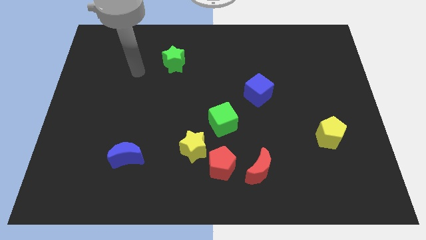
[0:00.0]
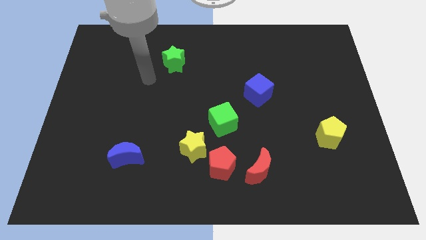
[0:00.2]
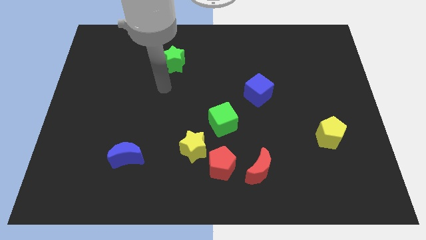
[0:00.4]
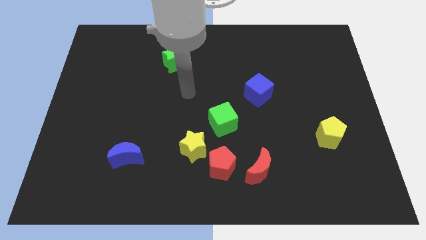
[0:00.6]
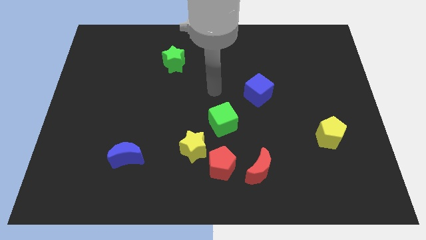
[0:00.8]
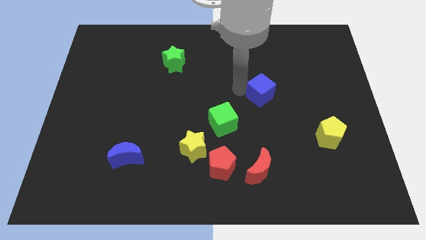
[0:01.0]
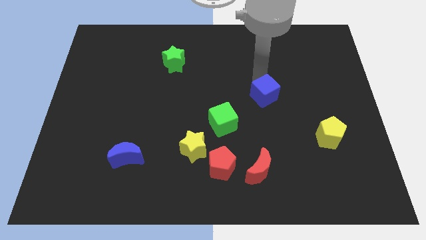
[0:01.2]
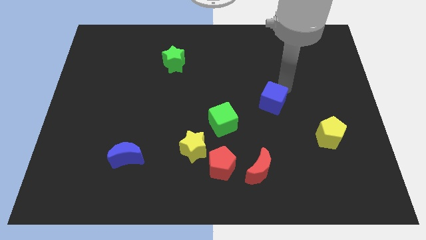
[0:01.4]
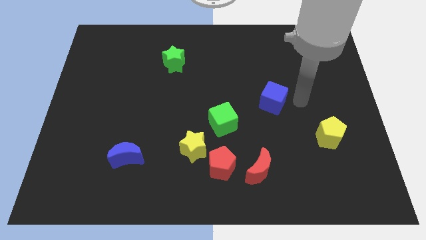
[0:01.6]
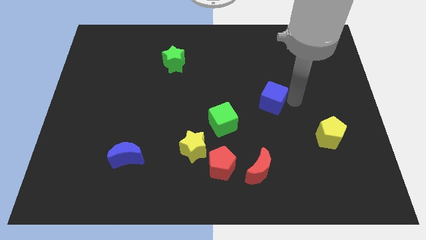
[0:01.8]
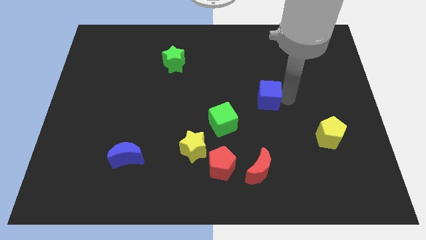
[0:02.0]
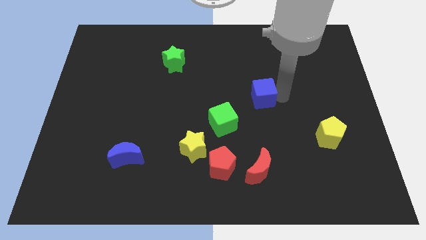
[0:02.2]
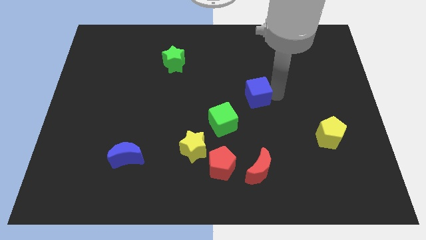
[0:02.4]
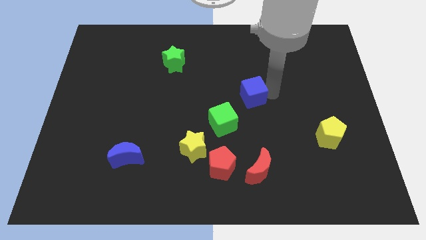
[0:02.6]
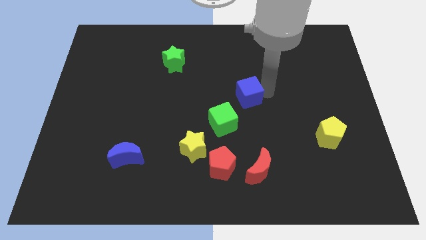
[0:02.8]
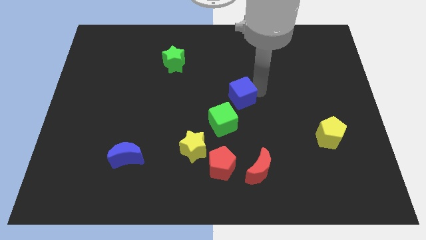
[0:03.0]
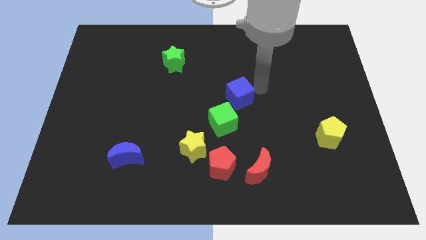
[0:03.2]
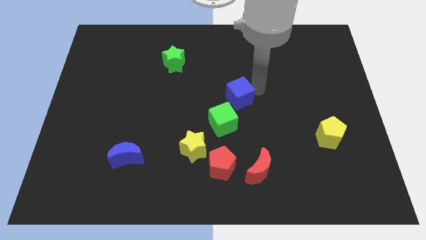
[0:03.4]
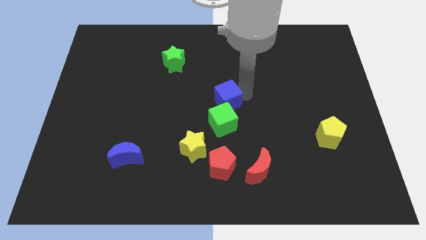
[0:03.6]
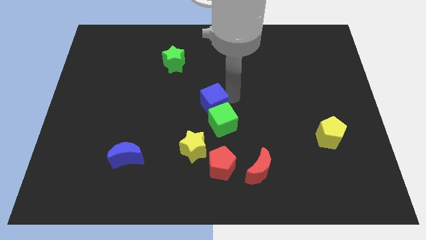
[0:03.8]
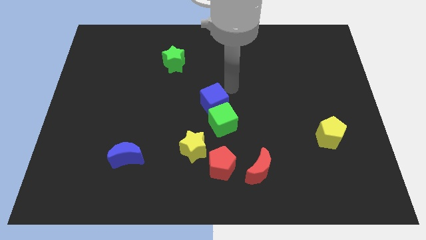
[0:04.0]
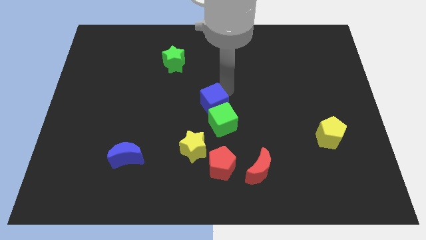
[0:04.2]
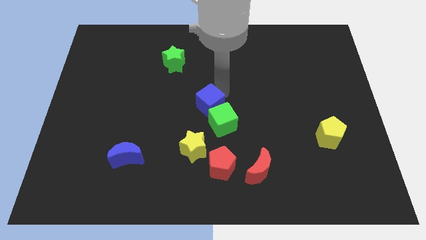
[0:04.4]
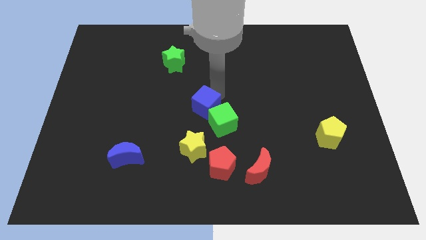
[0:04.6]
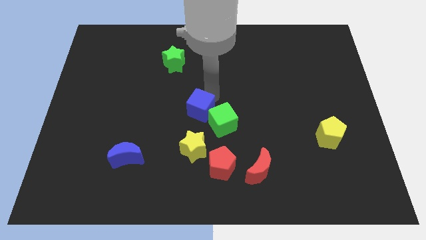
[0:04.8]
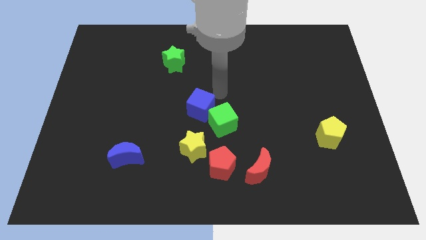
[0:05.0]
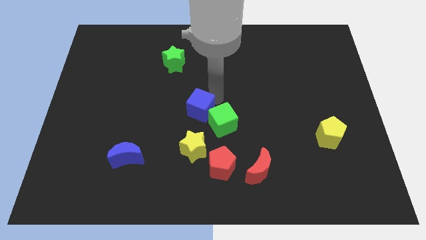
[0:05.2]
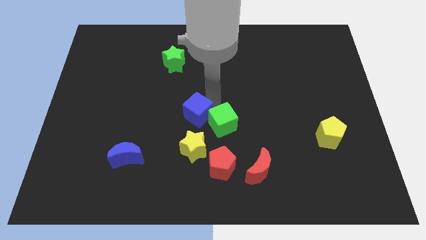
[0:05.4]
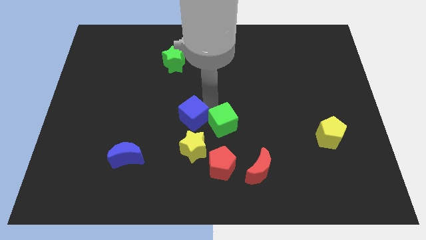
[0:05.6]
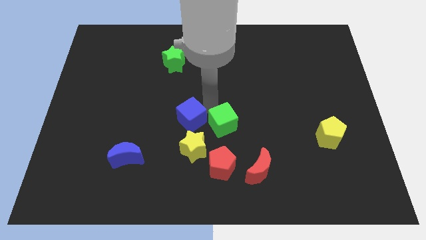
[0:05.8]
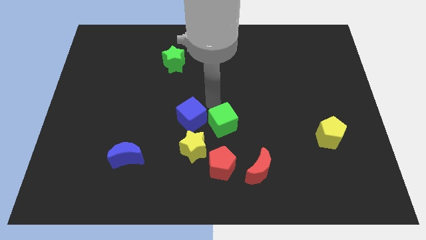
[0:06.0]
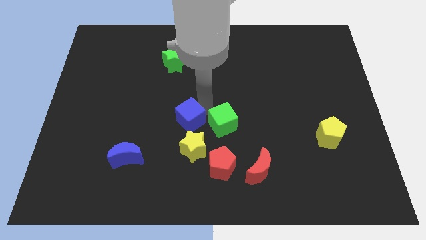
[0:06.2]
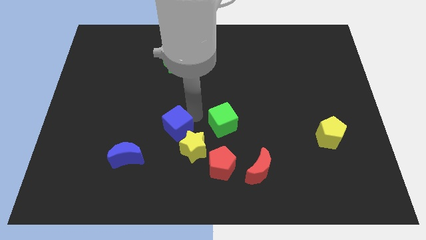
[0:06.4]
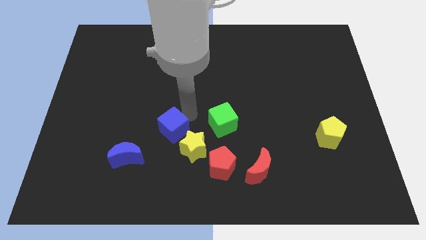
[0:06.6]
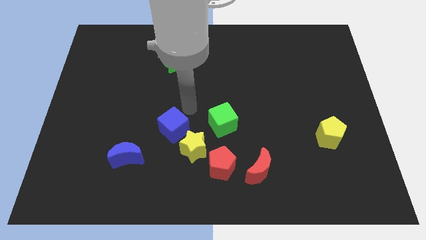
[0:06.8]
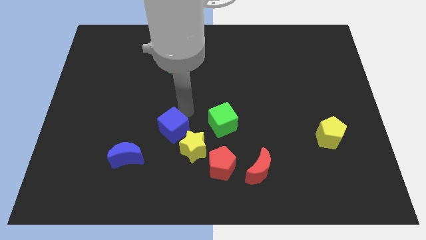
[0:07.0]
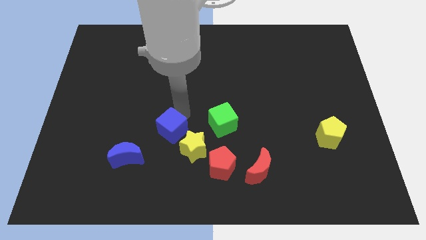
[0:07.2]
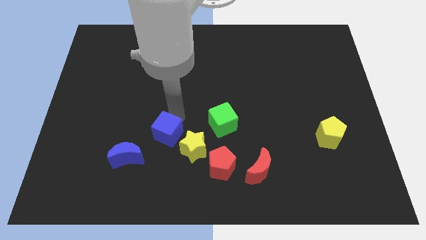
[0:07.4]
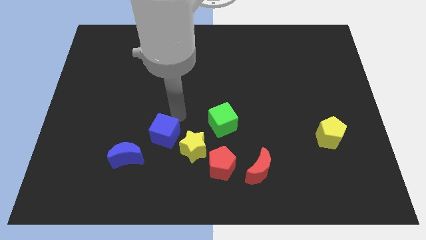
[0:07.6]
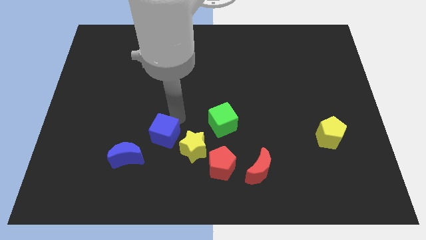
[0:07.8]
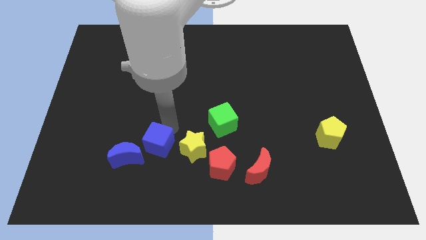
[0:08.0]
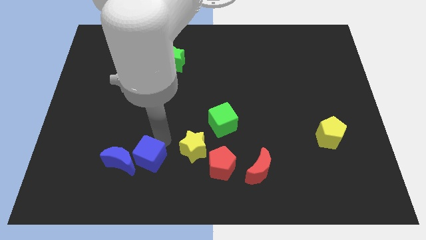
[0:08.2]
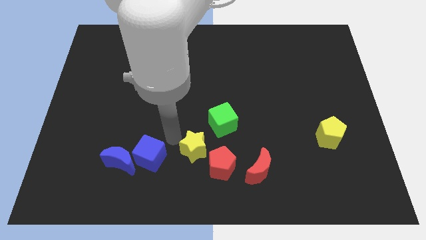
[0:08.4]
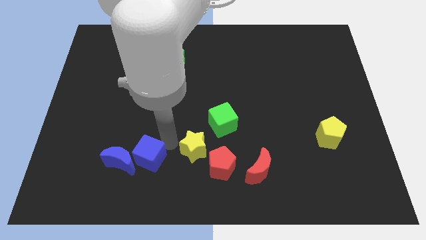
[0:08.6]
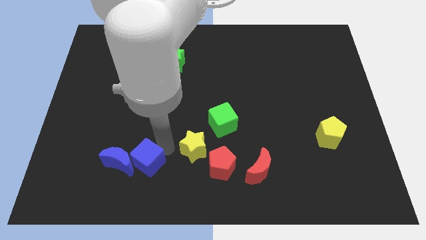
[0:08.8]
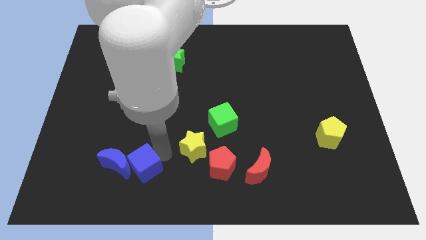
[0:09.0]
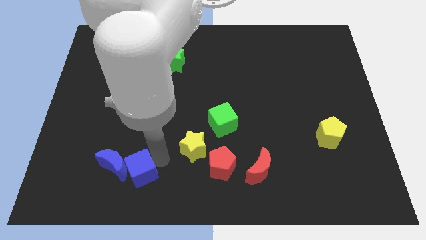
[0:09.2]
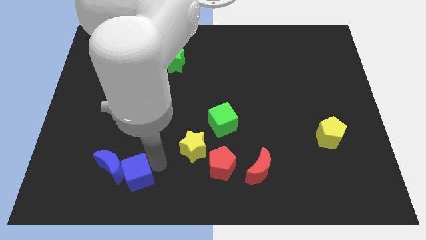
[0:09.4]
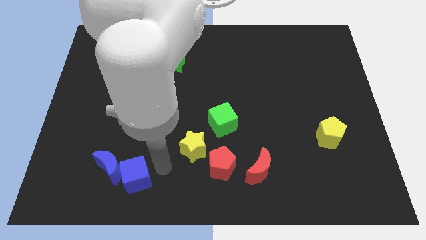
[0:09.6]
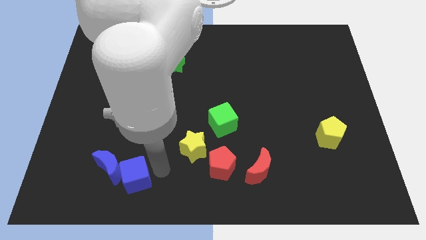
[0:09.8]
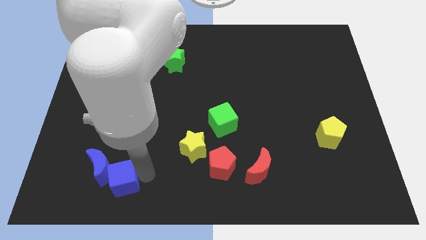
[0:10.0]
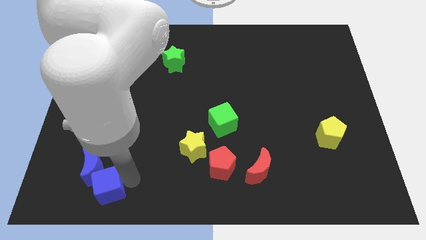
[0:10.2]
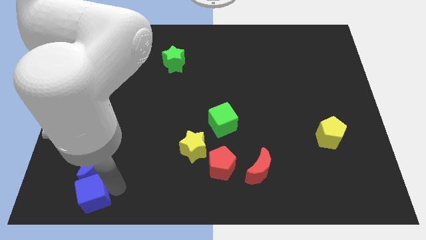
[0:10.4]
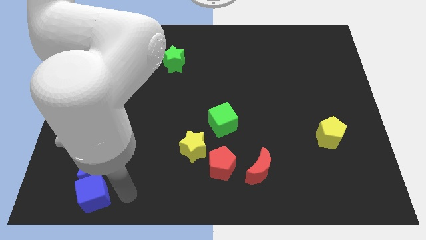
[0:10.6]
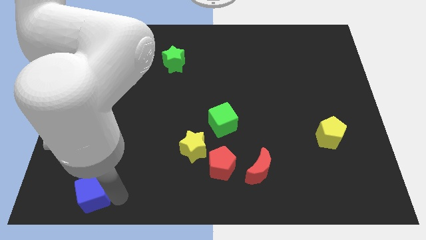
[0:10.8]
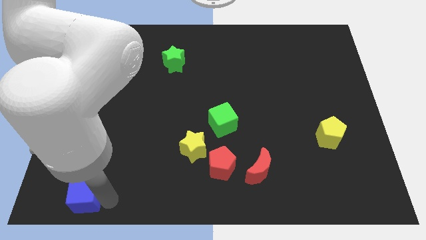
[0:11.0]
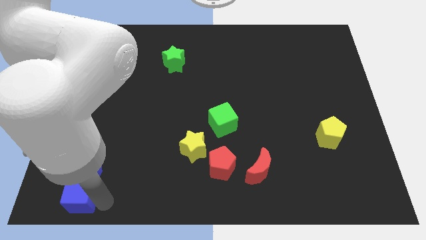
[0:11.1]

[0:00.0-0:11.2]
move the blue cube to the bottom left

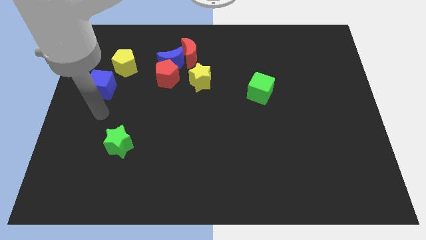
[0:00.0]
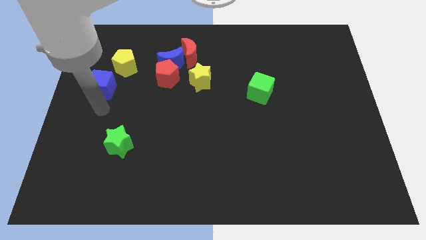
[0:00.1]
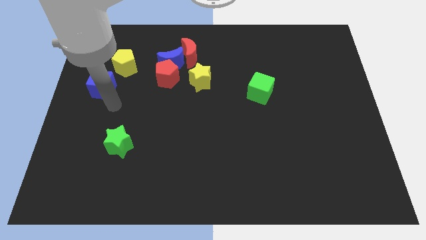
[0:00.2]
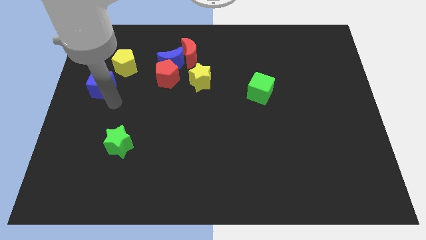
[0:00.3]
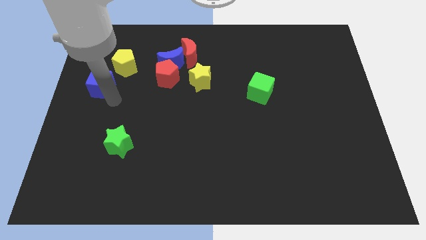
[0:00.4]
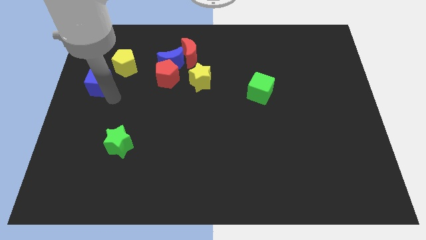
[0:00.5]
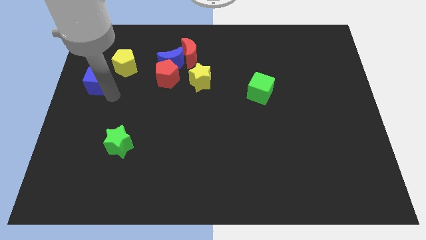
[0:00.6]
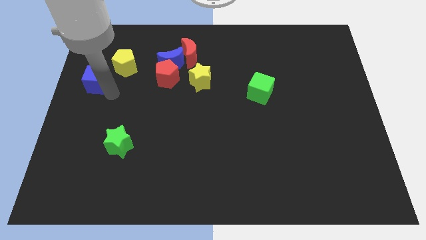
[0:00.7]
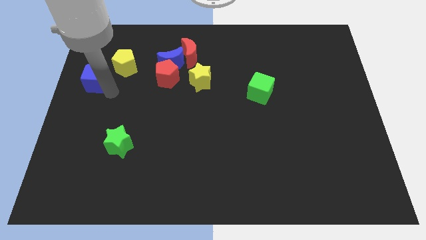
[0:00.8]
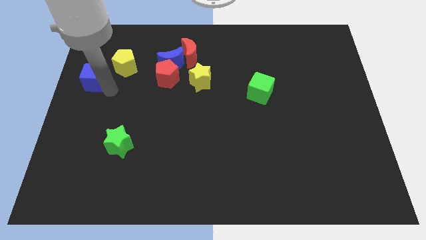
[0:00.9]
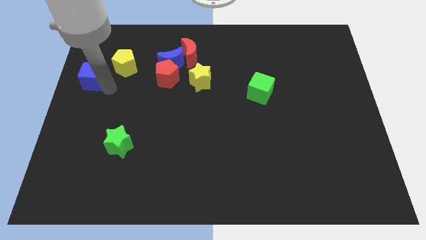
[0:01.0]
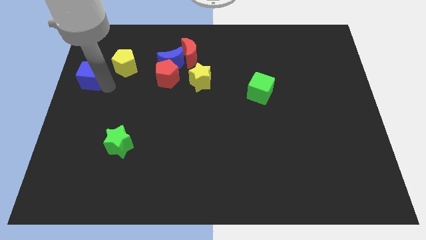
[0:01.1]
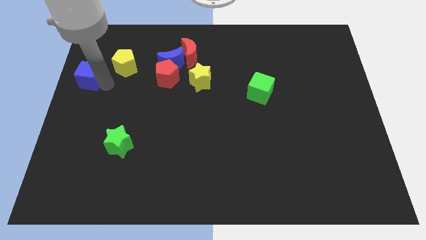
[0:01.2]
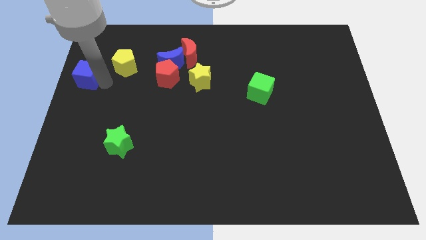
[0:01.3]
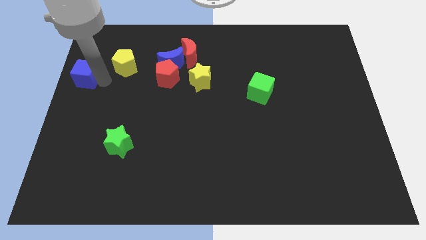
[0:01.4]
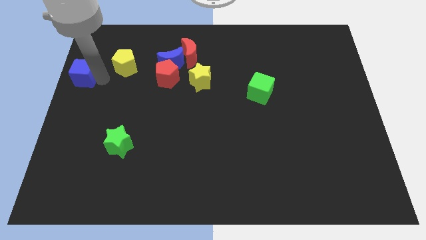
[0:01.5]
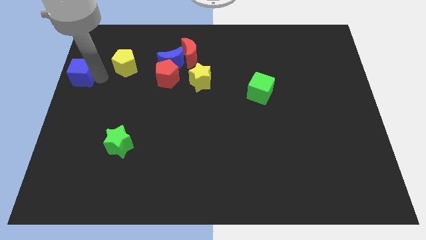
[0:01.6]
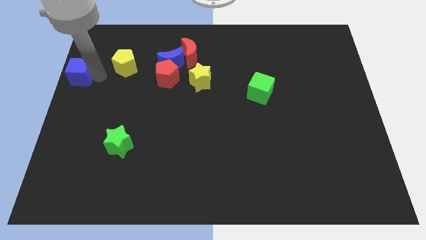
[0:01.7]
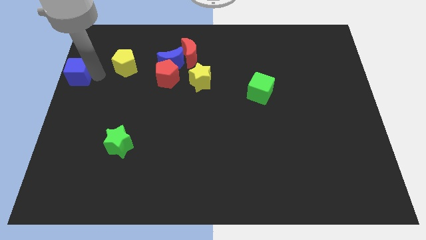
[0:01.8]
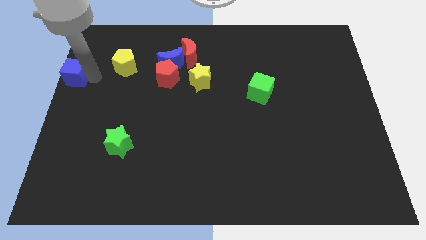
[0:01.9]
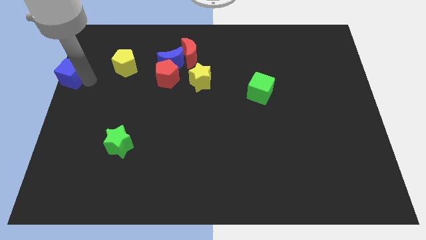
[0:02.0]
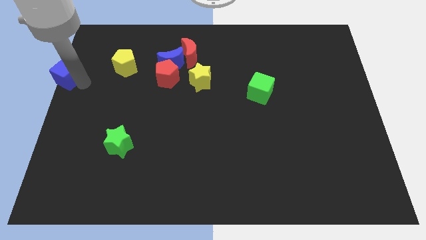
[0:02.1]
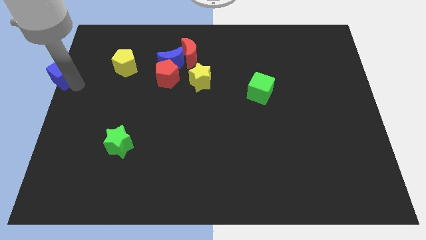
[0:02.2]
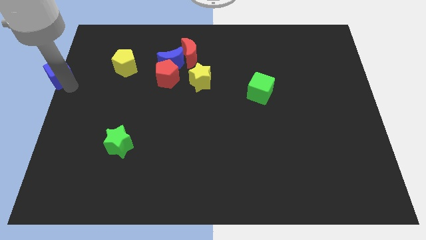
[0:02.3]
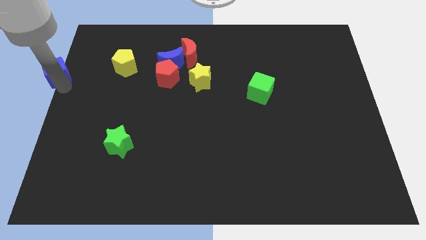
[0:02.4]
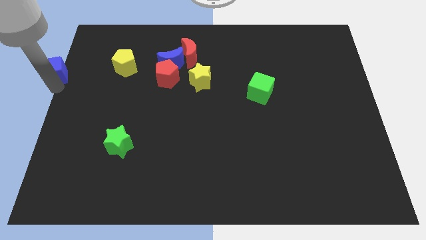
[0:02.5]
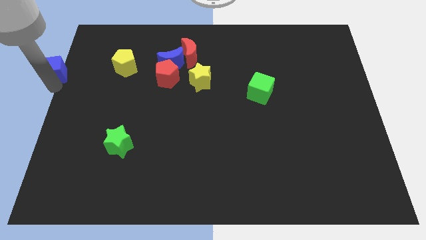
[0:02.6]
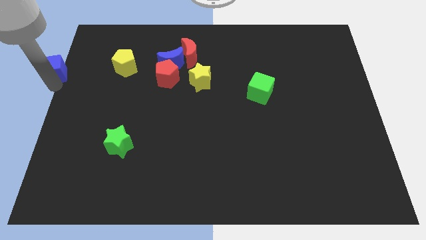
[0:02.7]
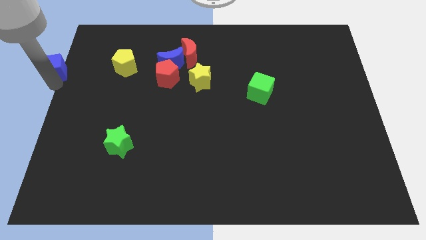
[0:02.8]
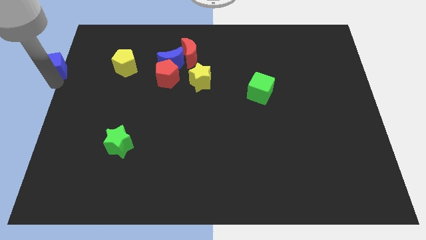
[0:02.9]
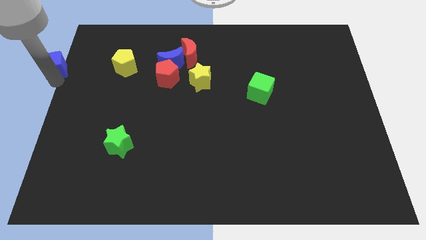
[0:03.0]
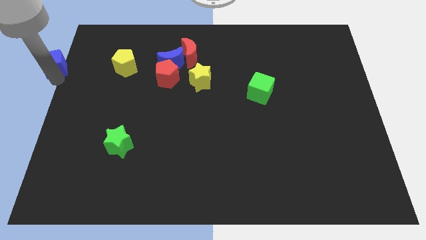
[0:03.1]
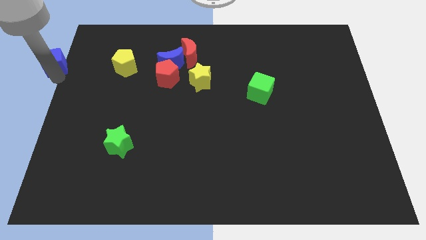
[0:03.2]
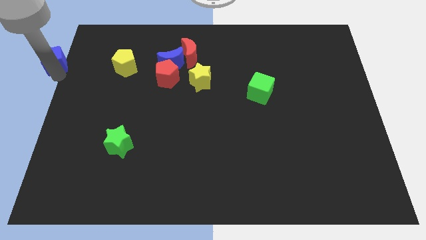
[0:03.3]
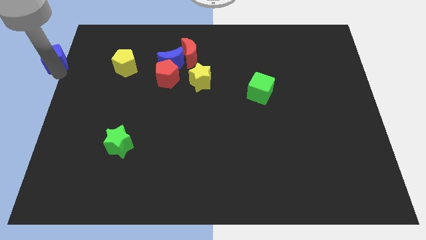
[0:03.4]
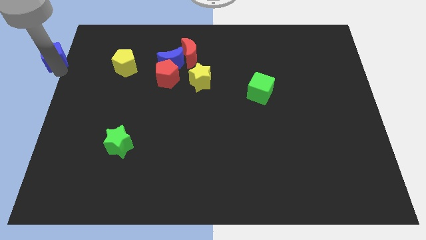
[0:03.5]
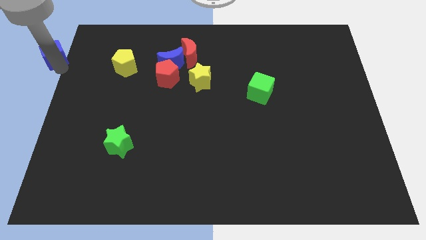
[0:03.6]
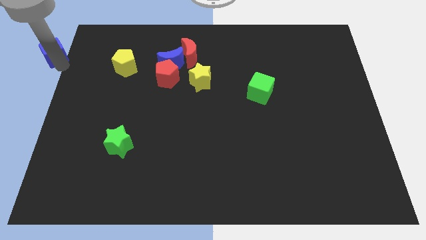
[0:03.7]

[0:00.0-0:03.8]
put the blue cube to the upper left corner
